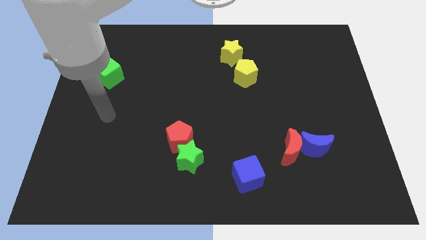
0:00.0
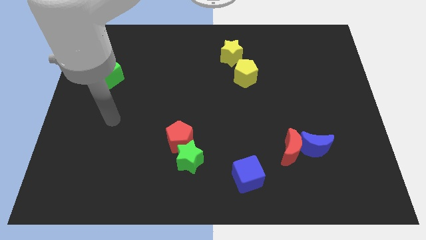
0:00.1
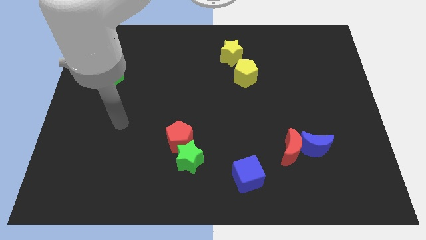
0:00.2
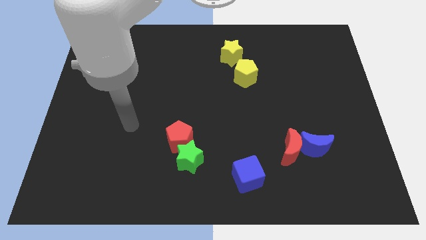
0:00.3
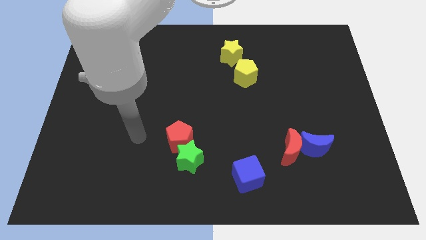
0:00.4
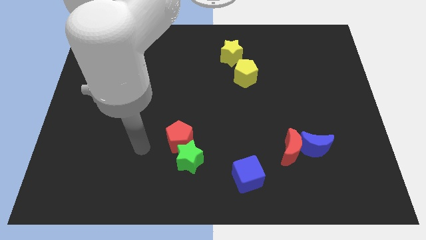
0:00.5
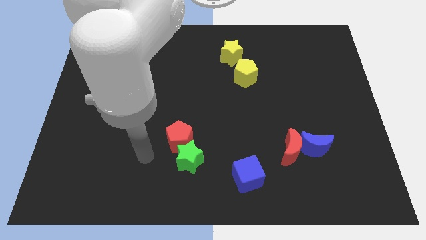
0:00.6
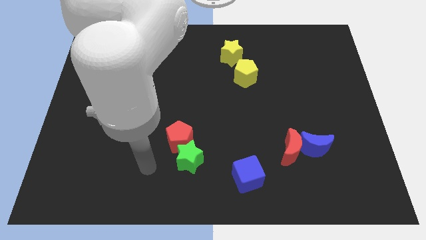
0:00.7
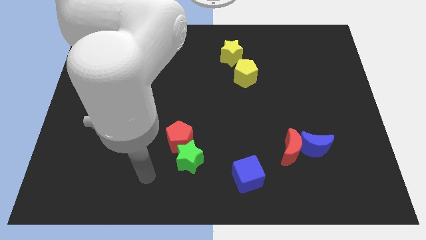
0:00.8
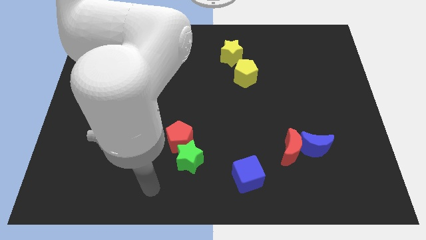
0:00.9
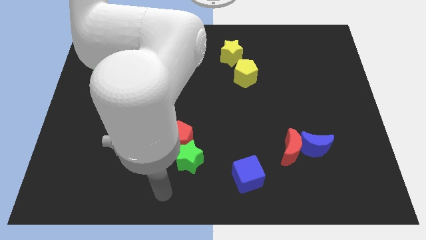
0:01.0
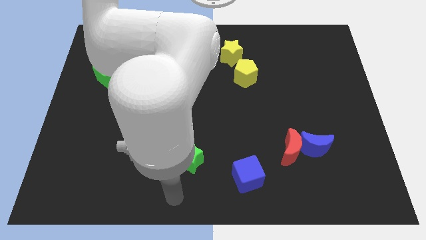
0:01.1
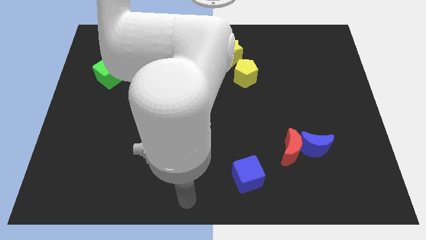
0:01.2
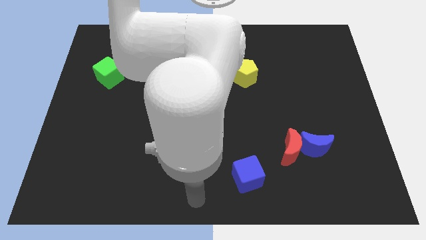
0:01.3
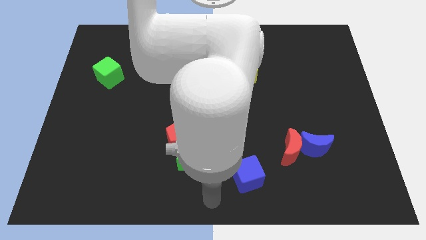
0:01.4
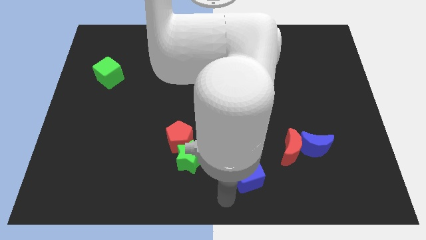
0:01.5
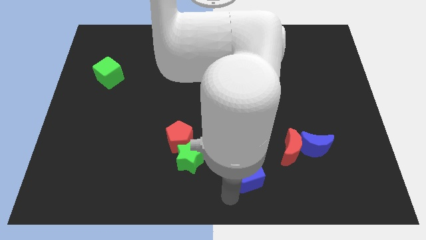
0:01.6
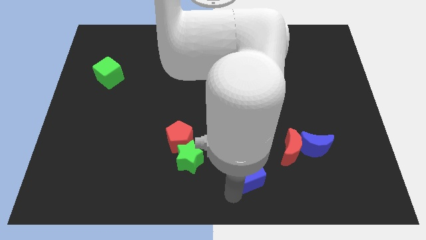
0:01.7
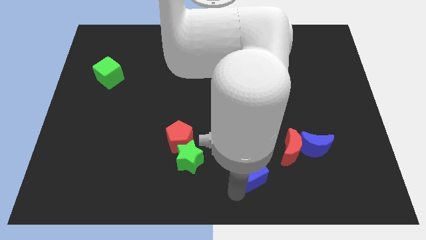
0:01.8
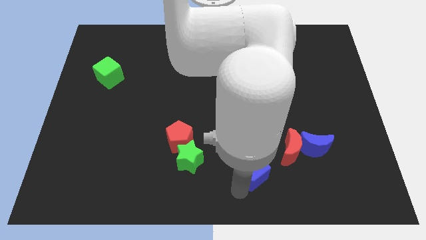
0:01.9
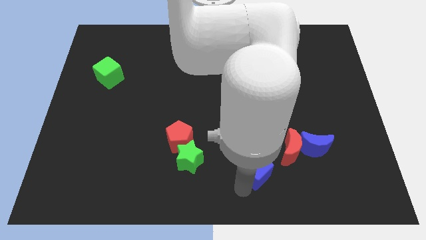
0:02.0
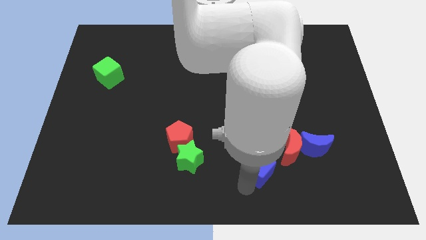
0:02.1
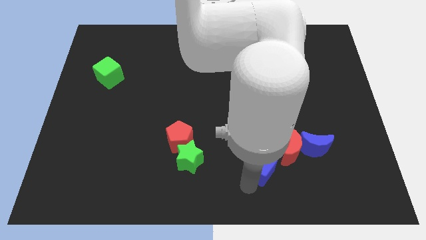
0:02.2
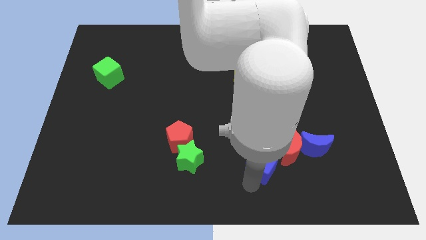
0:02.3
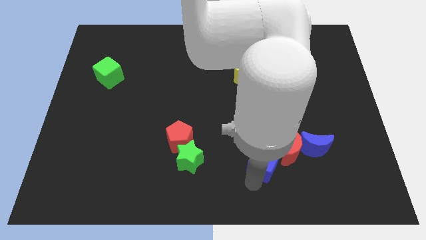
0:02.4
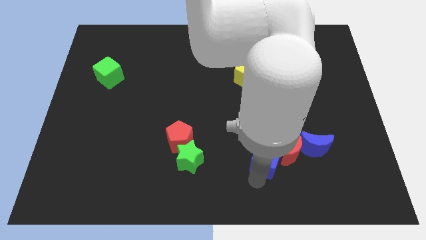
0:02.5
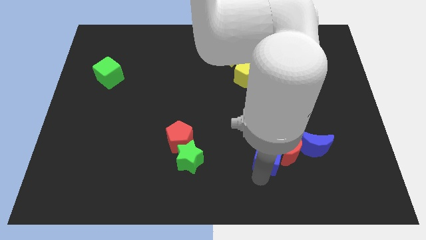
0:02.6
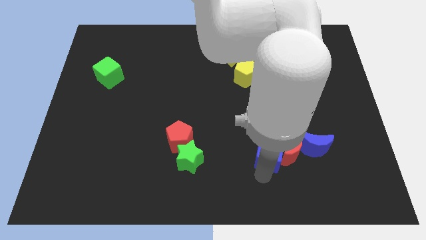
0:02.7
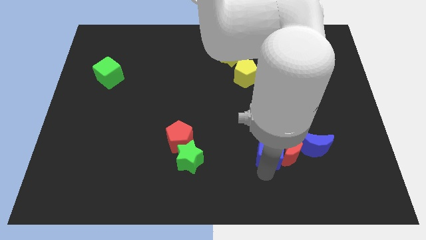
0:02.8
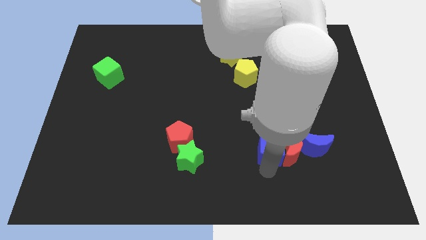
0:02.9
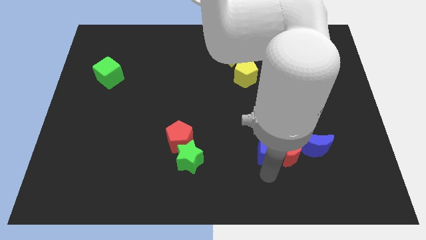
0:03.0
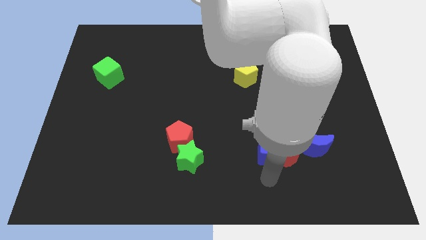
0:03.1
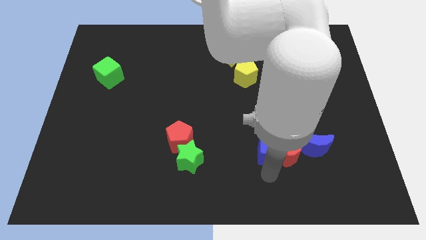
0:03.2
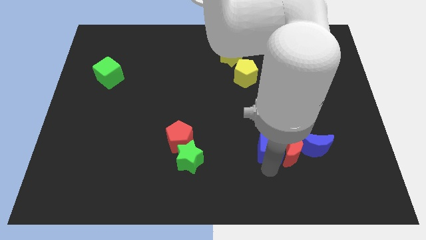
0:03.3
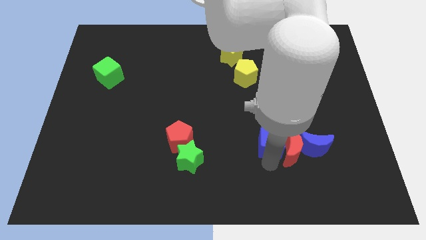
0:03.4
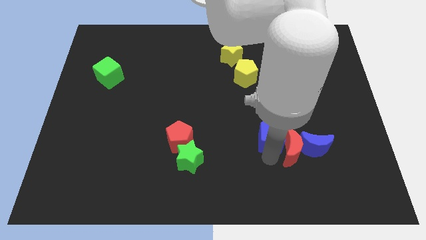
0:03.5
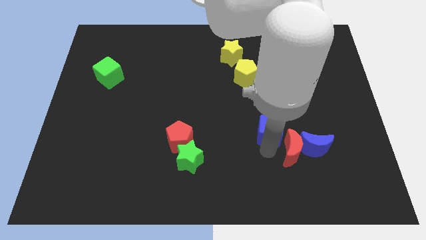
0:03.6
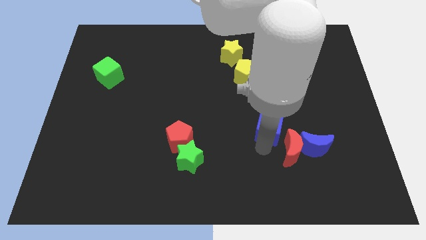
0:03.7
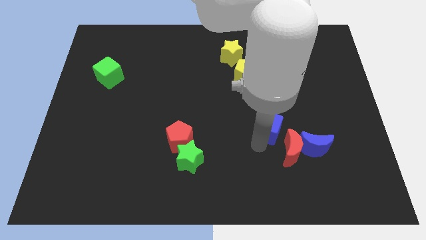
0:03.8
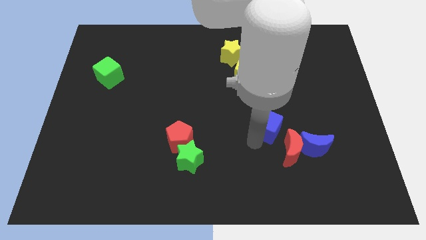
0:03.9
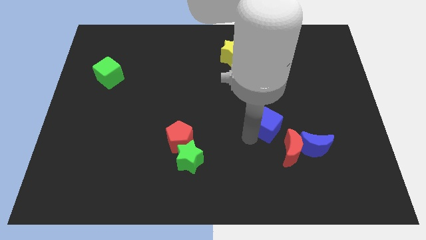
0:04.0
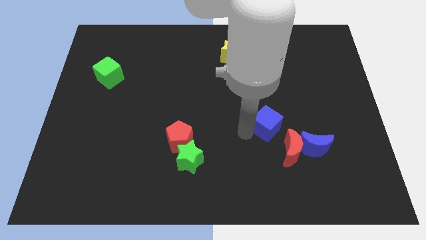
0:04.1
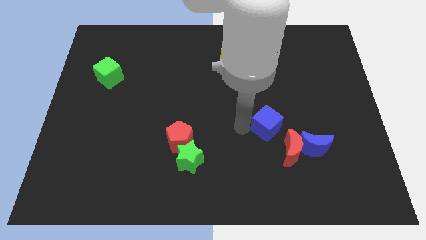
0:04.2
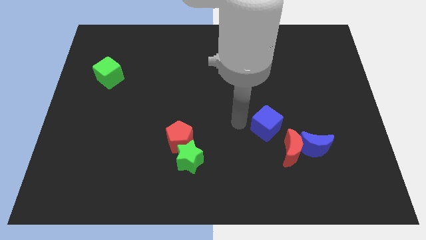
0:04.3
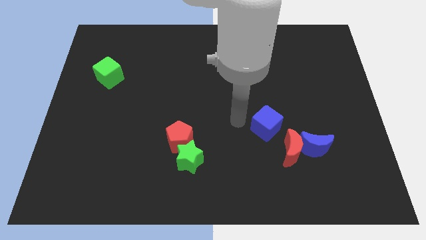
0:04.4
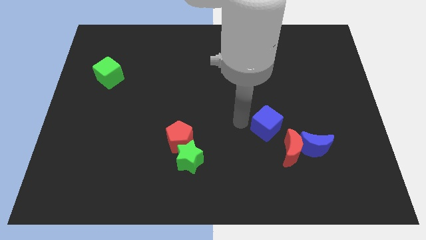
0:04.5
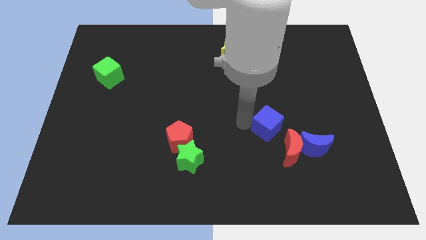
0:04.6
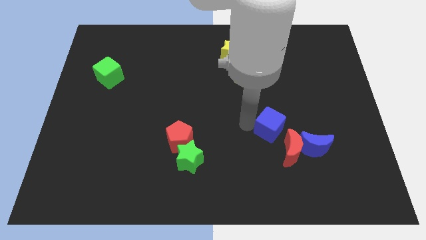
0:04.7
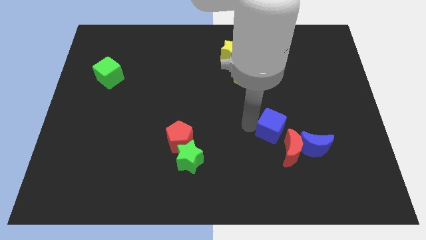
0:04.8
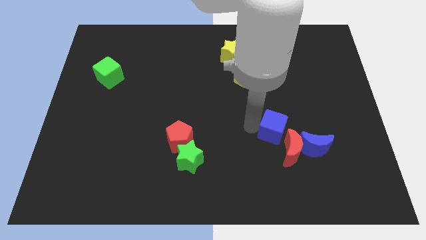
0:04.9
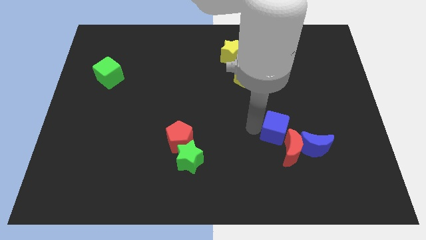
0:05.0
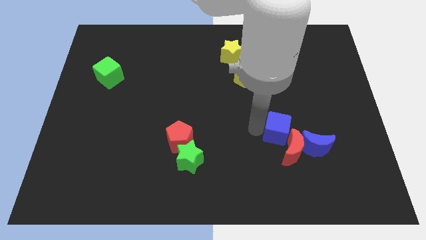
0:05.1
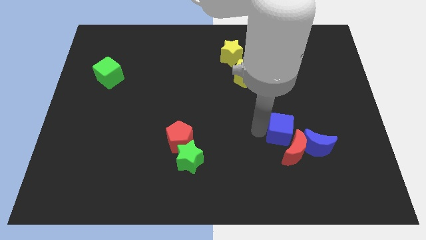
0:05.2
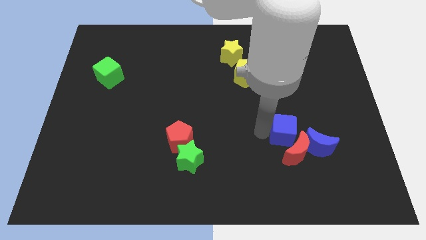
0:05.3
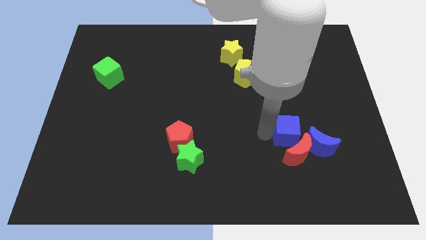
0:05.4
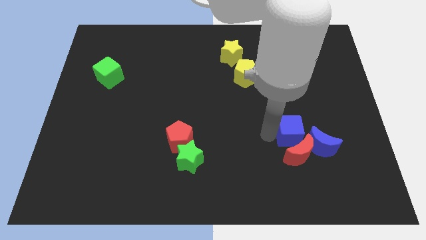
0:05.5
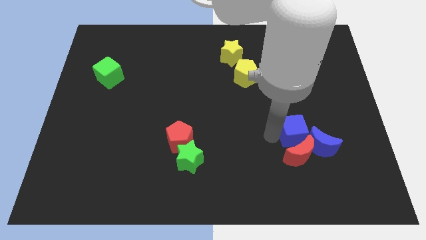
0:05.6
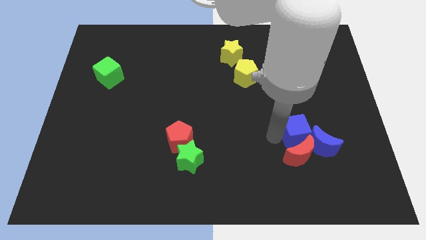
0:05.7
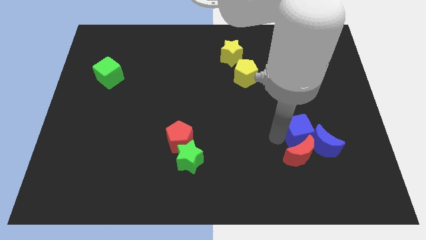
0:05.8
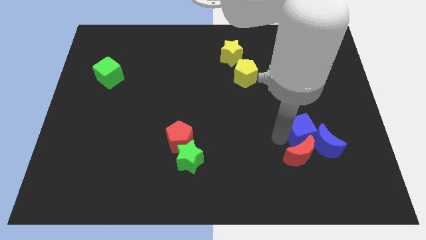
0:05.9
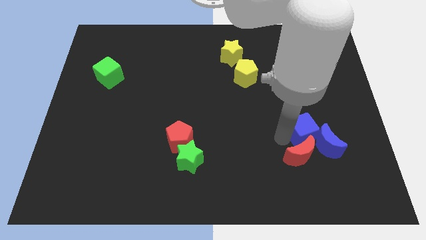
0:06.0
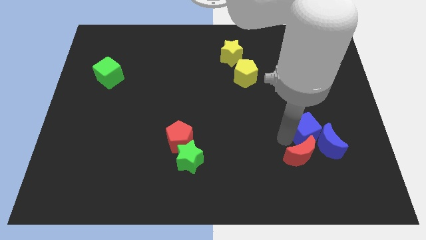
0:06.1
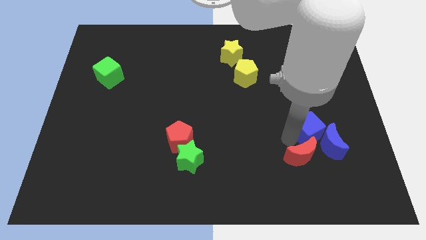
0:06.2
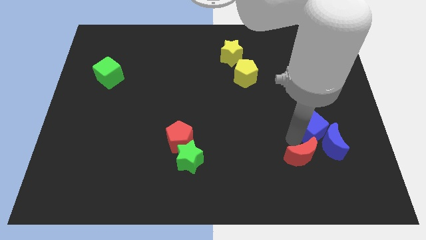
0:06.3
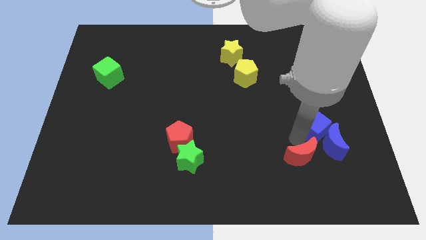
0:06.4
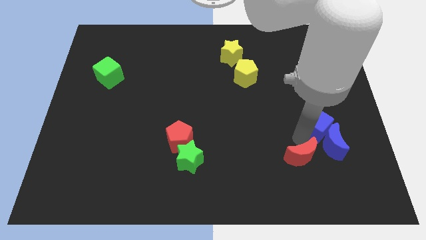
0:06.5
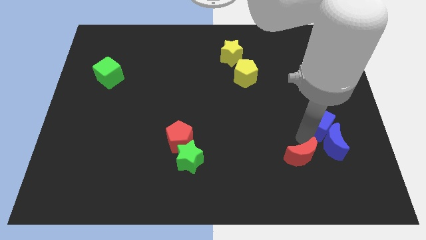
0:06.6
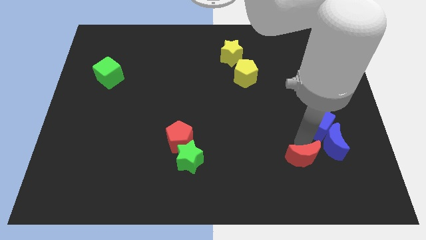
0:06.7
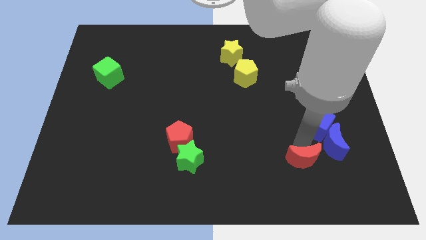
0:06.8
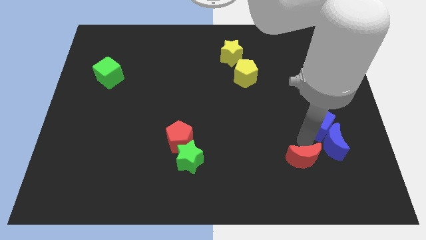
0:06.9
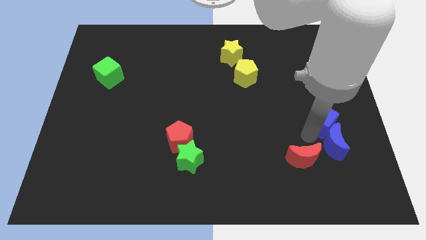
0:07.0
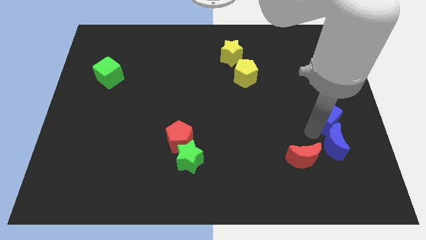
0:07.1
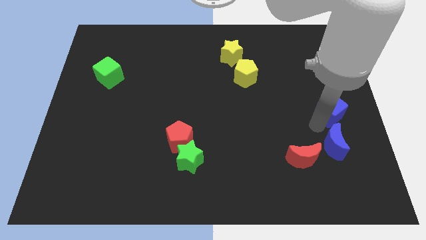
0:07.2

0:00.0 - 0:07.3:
move the blue cube to the center right
